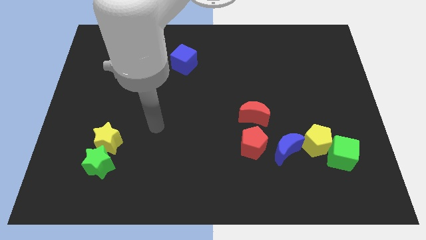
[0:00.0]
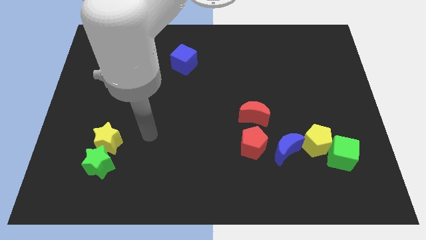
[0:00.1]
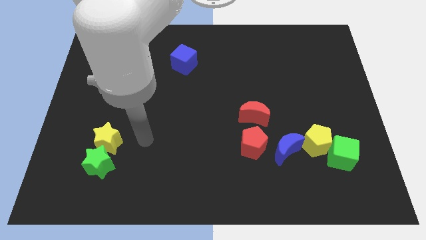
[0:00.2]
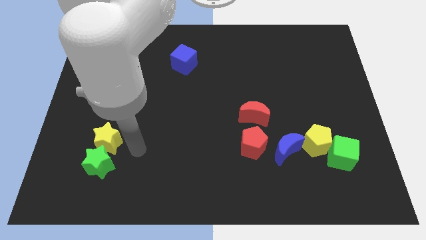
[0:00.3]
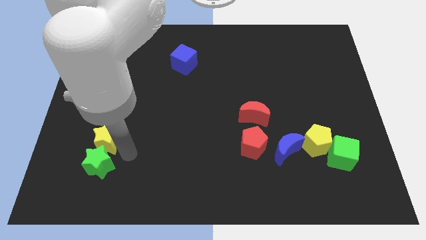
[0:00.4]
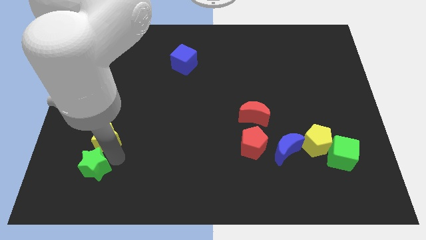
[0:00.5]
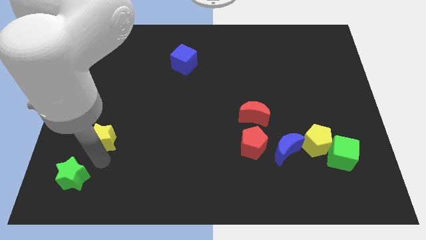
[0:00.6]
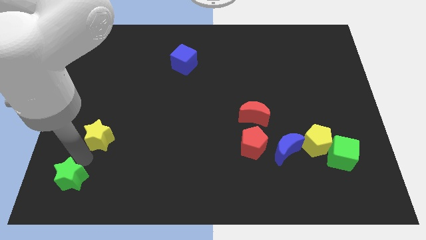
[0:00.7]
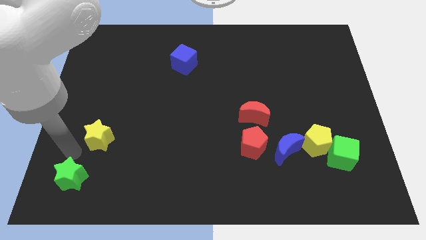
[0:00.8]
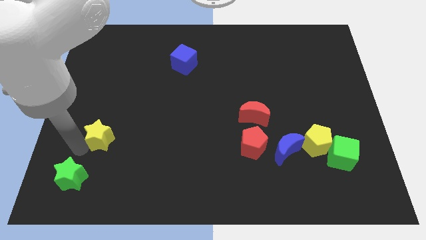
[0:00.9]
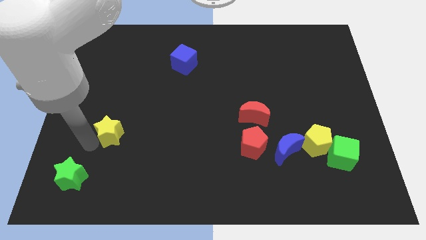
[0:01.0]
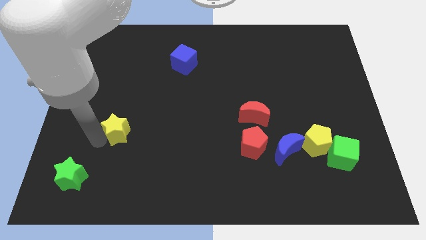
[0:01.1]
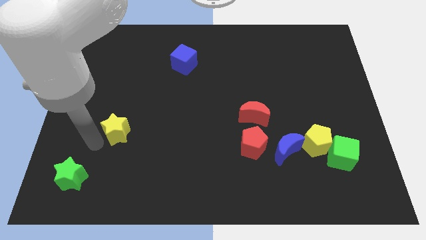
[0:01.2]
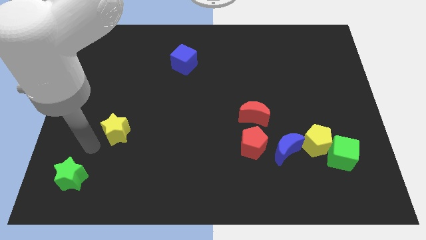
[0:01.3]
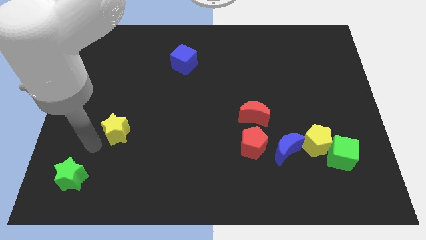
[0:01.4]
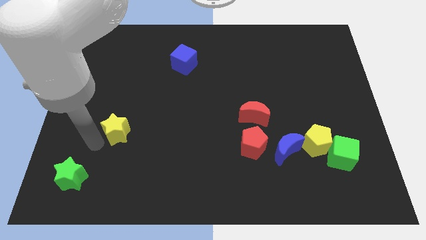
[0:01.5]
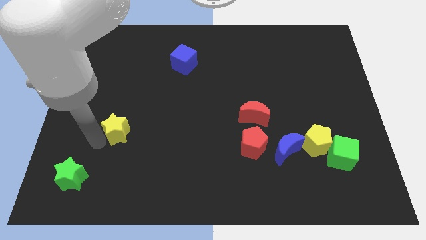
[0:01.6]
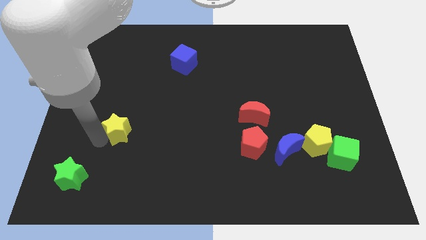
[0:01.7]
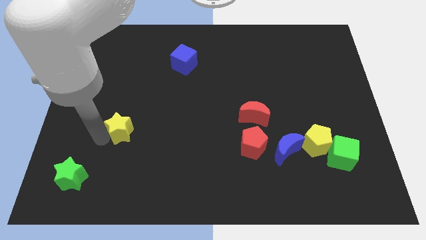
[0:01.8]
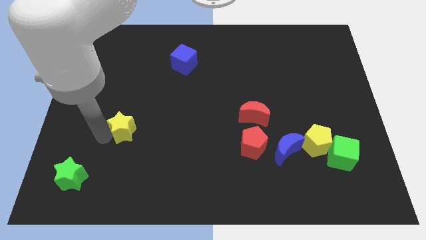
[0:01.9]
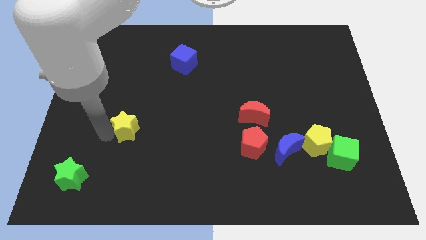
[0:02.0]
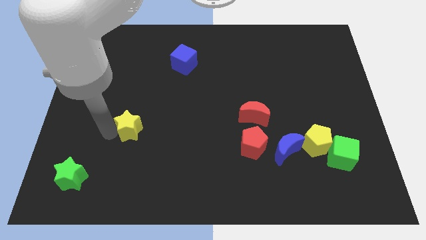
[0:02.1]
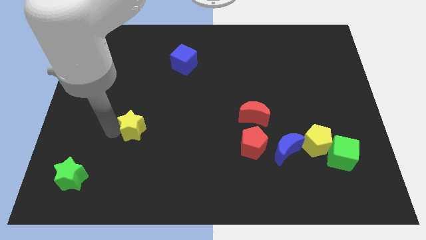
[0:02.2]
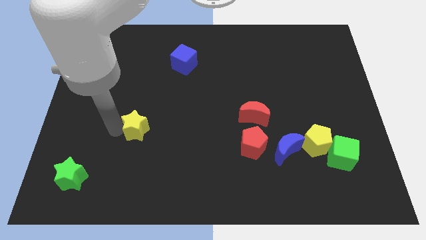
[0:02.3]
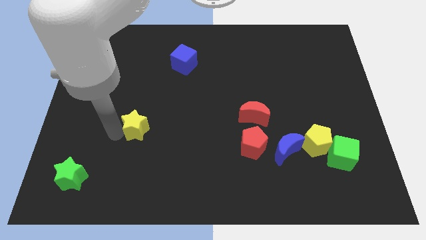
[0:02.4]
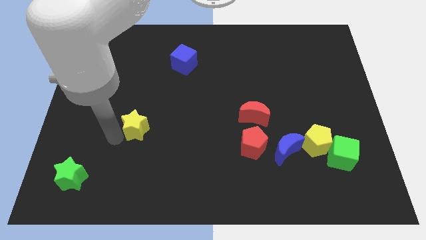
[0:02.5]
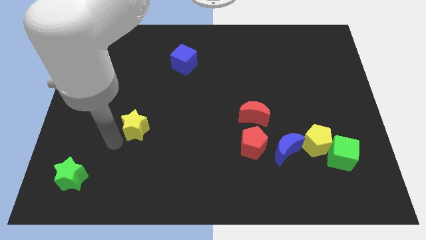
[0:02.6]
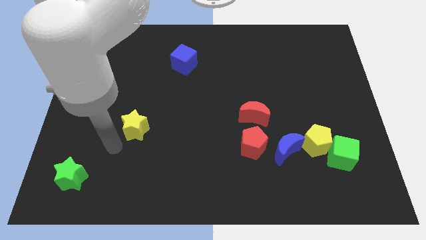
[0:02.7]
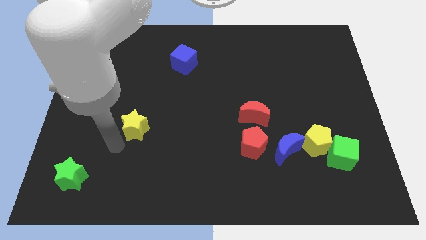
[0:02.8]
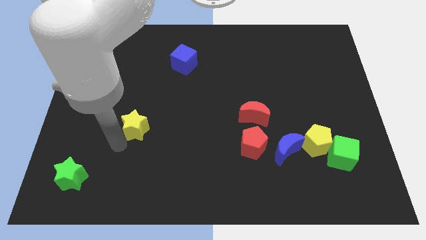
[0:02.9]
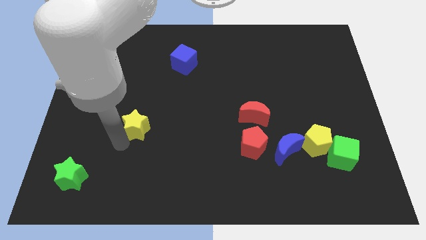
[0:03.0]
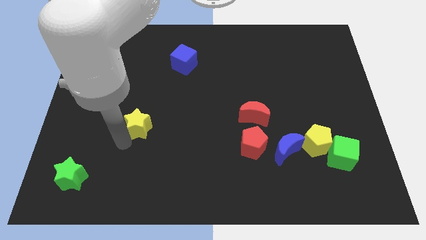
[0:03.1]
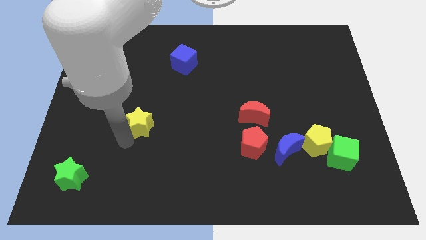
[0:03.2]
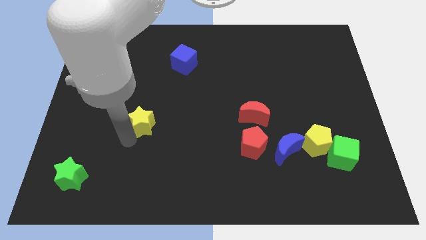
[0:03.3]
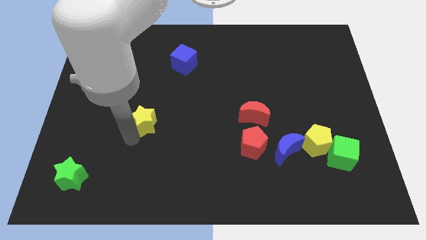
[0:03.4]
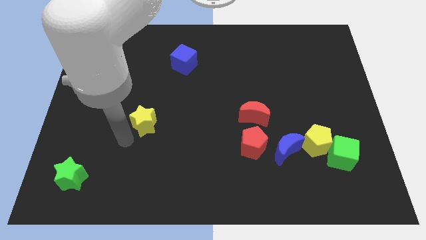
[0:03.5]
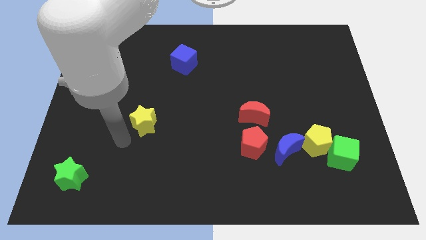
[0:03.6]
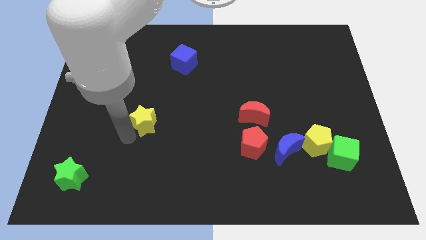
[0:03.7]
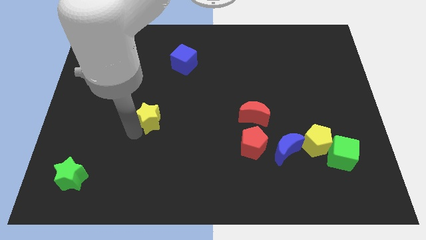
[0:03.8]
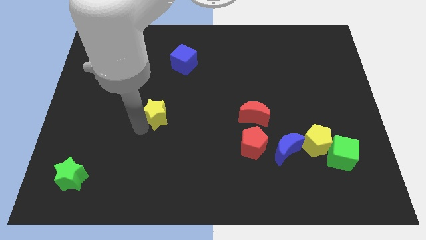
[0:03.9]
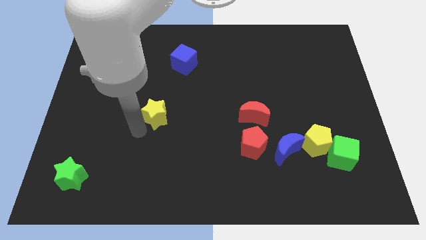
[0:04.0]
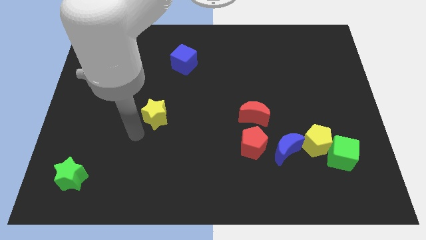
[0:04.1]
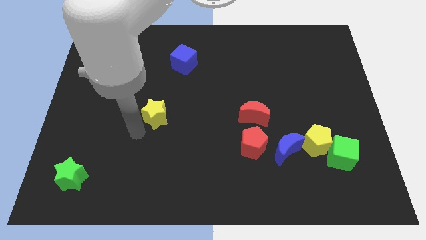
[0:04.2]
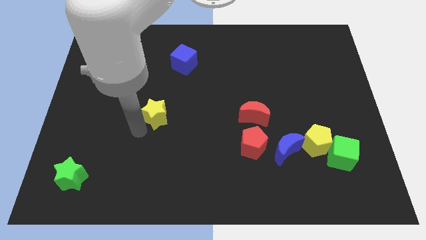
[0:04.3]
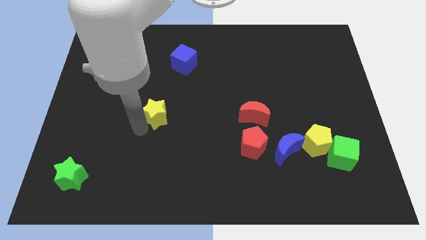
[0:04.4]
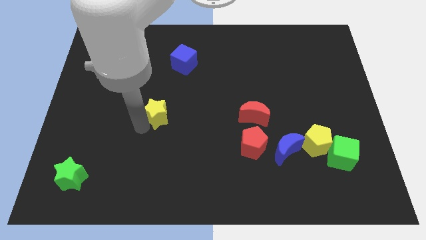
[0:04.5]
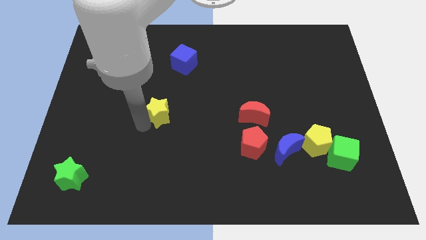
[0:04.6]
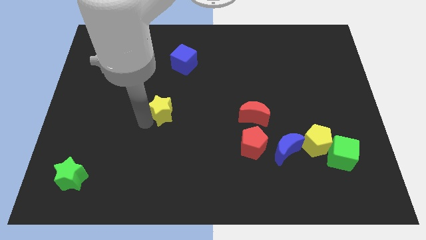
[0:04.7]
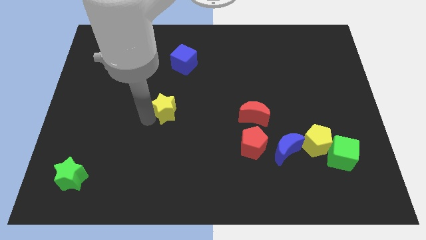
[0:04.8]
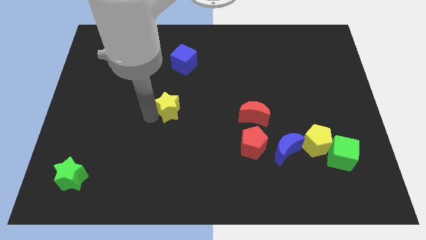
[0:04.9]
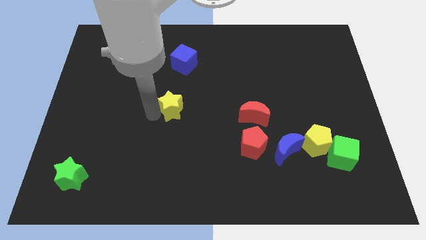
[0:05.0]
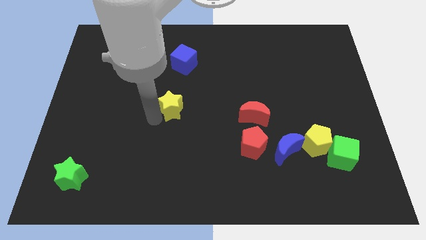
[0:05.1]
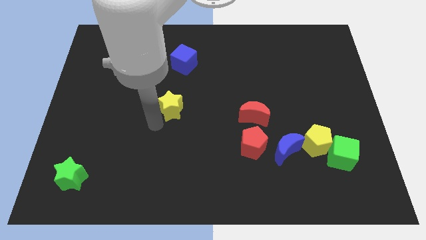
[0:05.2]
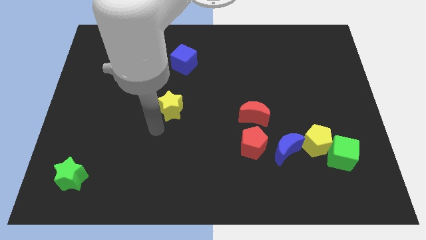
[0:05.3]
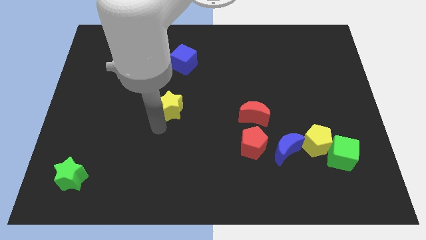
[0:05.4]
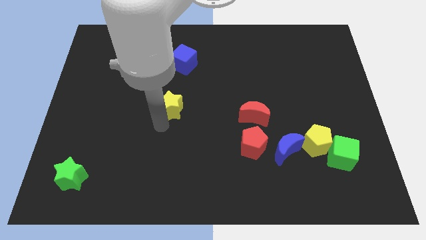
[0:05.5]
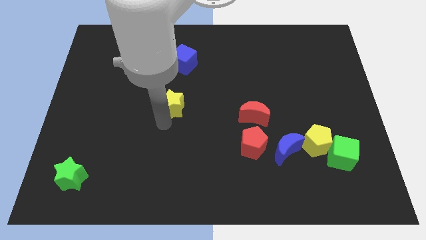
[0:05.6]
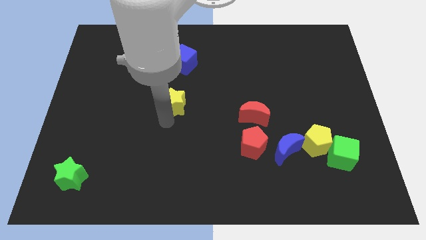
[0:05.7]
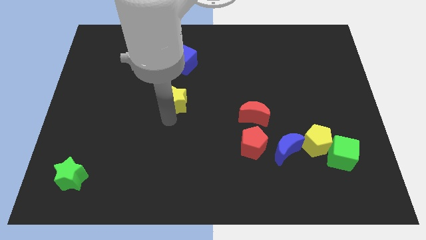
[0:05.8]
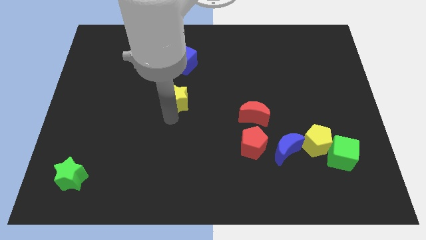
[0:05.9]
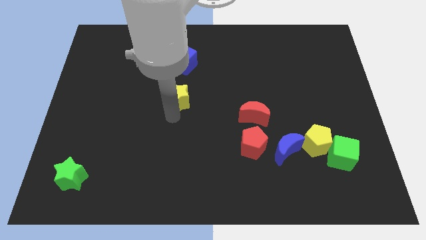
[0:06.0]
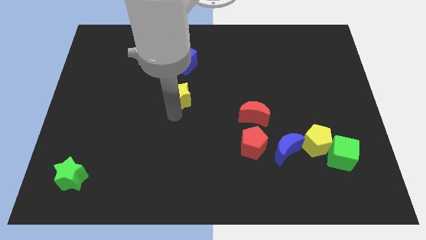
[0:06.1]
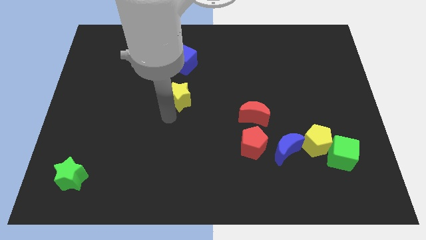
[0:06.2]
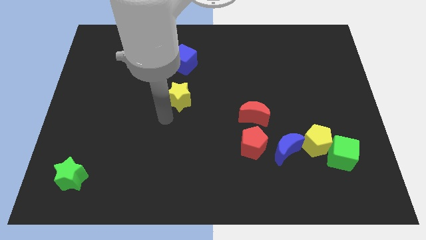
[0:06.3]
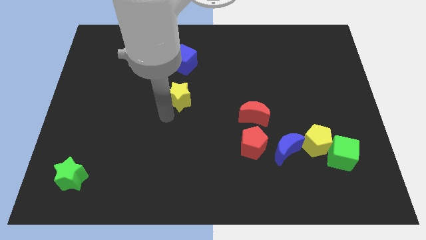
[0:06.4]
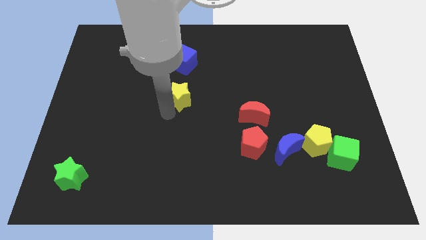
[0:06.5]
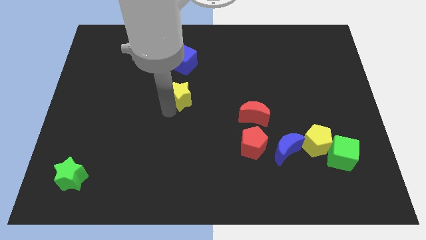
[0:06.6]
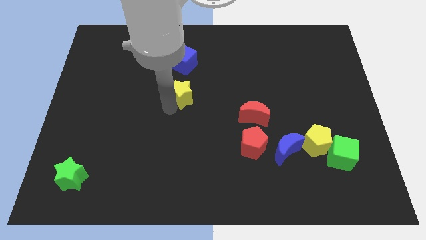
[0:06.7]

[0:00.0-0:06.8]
move the yellow star up and to the right

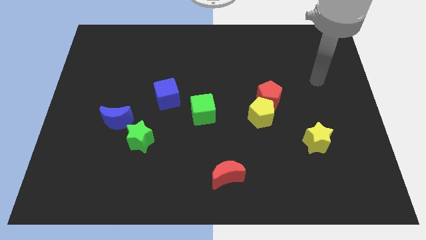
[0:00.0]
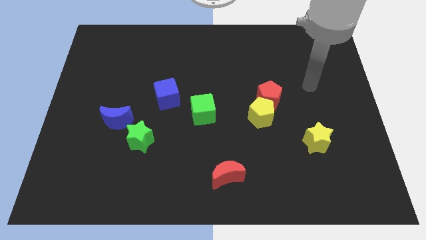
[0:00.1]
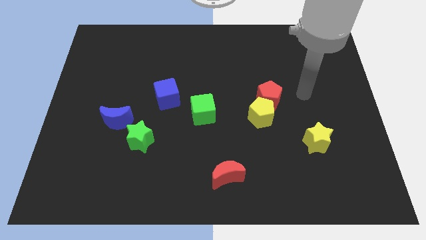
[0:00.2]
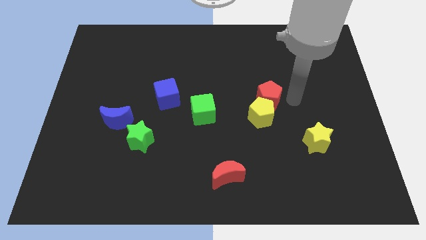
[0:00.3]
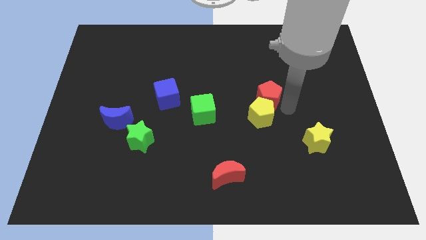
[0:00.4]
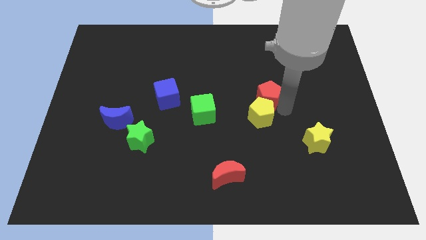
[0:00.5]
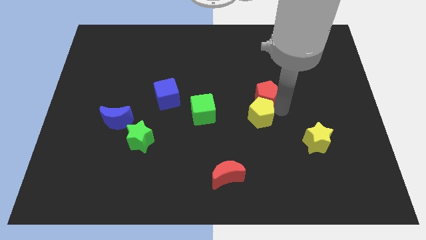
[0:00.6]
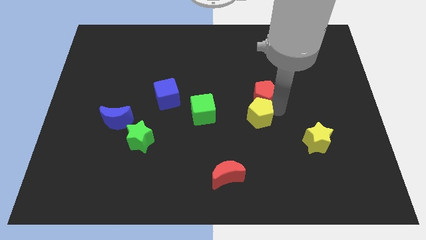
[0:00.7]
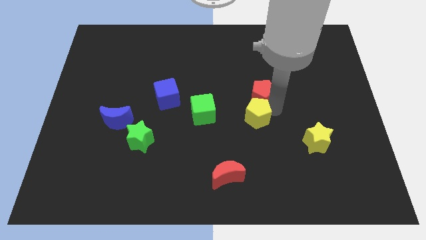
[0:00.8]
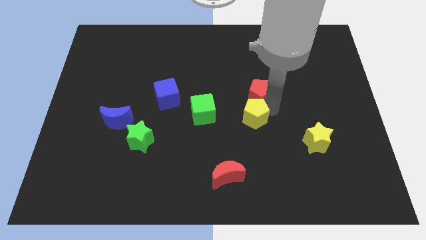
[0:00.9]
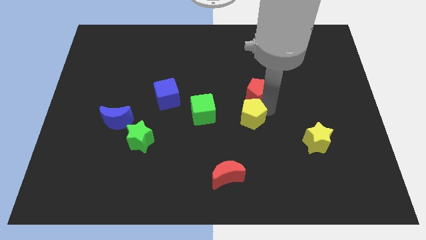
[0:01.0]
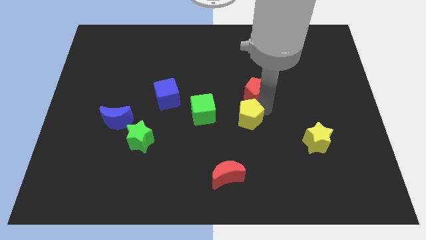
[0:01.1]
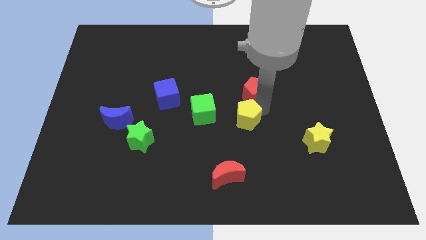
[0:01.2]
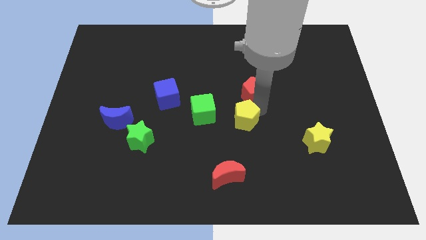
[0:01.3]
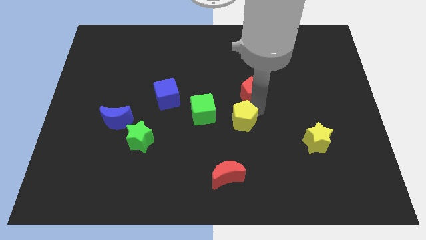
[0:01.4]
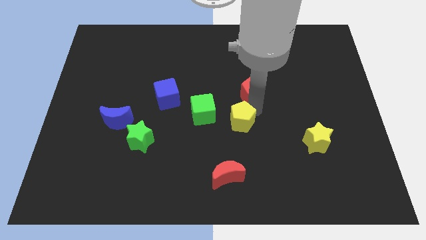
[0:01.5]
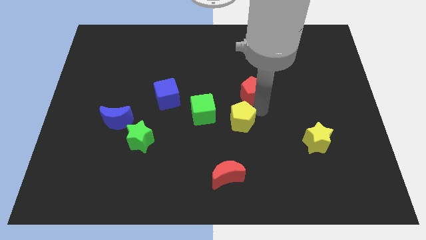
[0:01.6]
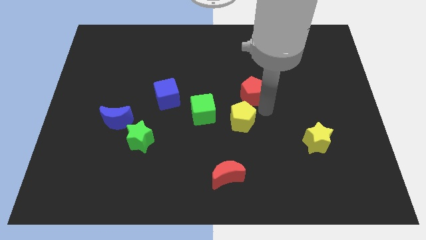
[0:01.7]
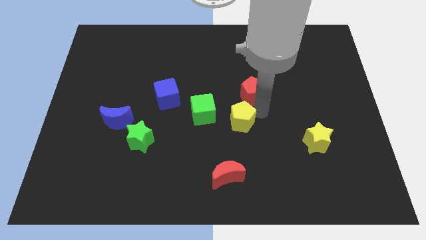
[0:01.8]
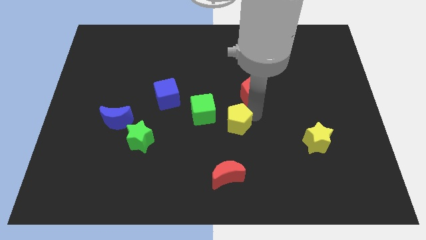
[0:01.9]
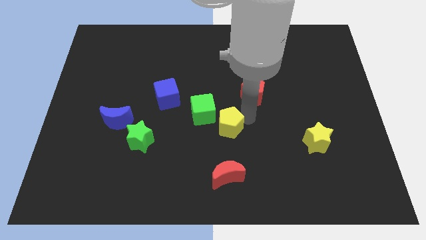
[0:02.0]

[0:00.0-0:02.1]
slightly push the yellow pentagon to the left
